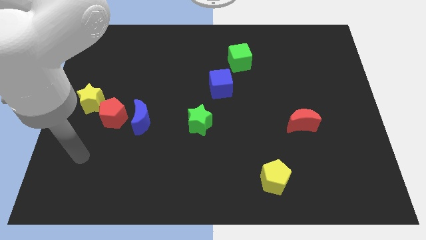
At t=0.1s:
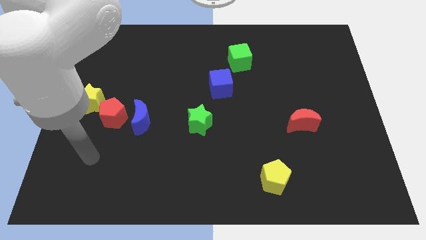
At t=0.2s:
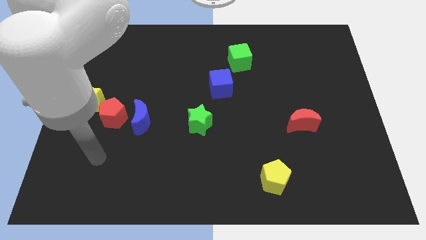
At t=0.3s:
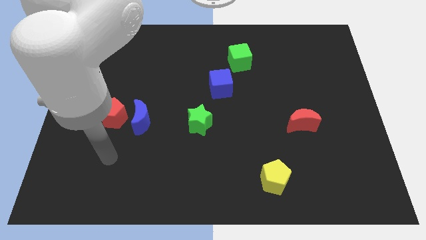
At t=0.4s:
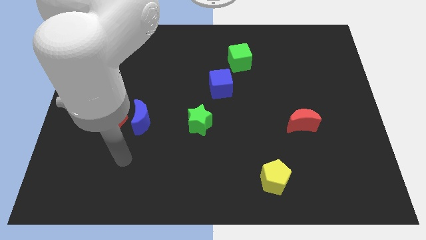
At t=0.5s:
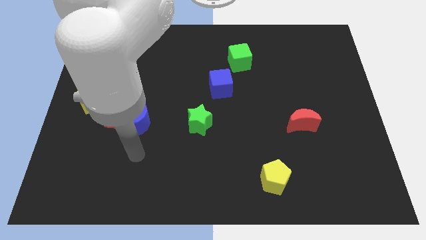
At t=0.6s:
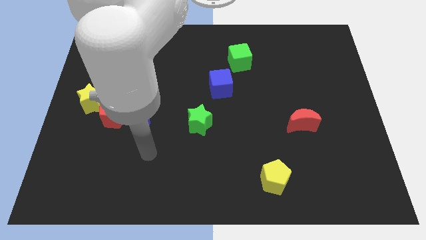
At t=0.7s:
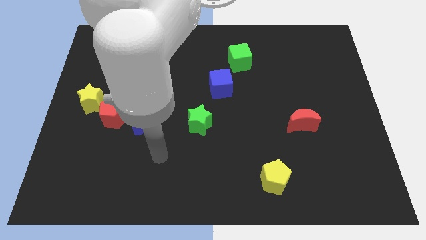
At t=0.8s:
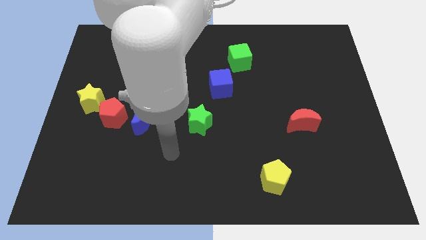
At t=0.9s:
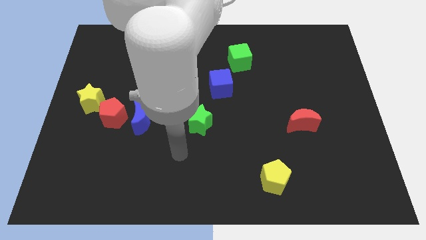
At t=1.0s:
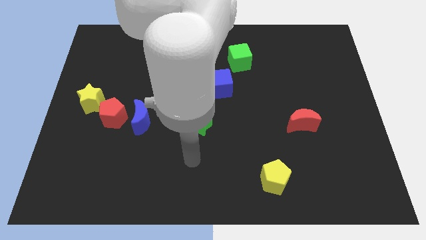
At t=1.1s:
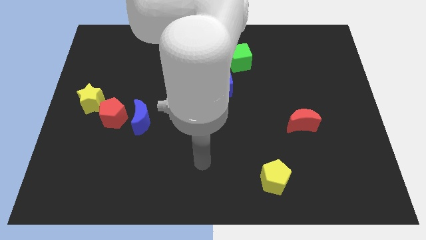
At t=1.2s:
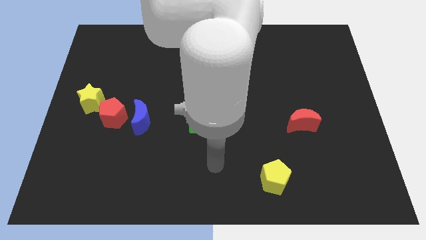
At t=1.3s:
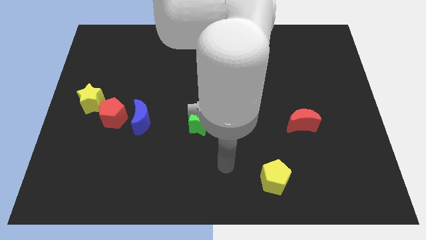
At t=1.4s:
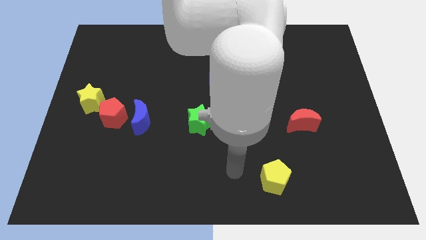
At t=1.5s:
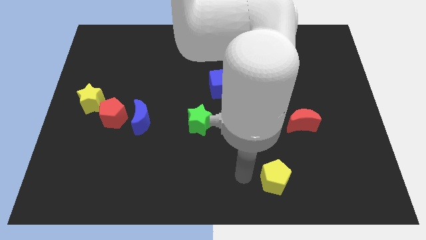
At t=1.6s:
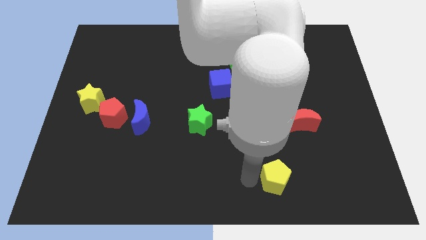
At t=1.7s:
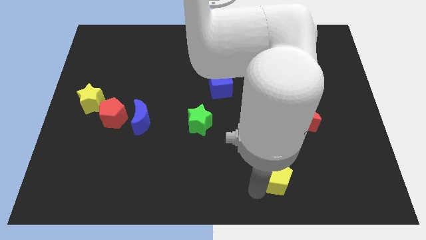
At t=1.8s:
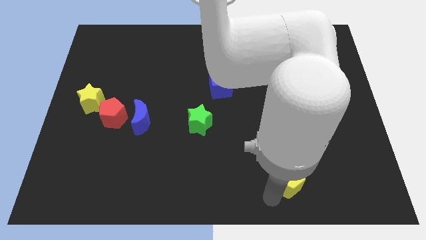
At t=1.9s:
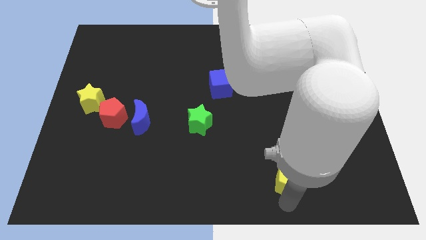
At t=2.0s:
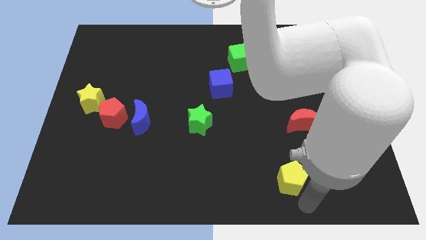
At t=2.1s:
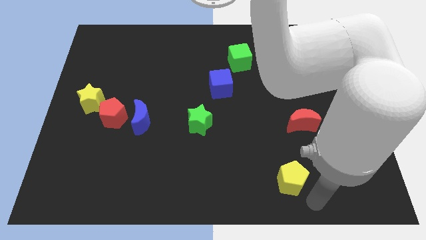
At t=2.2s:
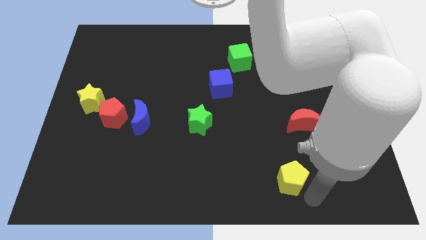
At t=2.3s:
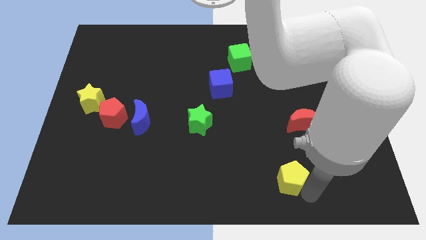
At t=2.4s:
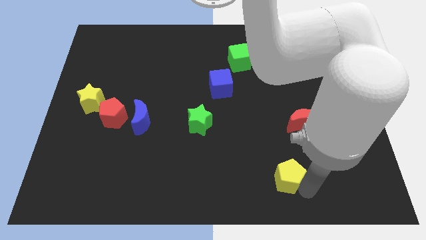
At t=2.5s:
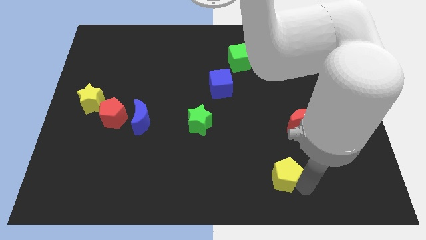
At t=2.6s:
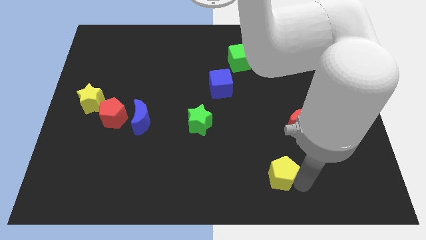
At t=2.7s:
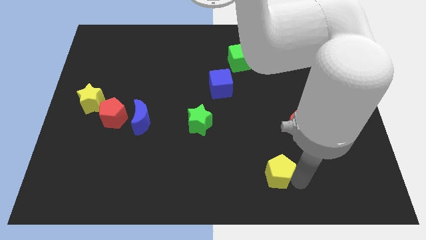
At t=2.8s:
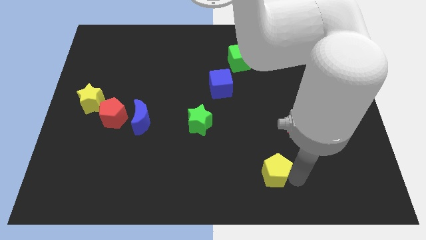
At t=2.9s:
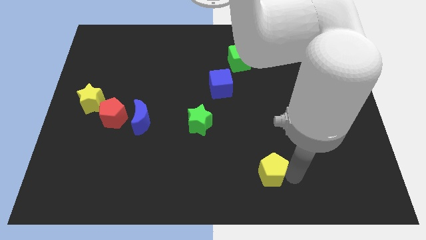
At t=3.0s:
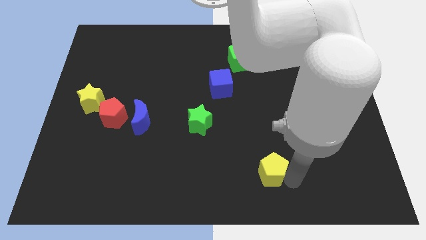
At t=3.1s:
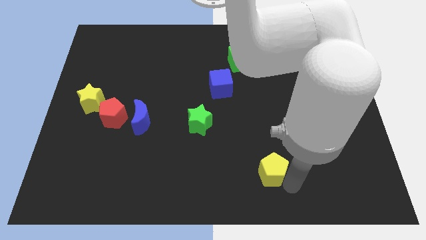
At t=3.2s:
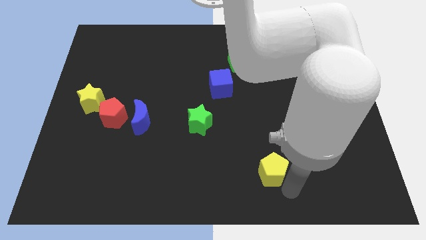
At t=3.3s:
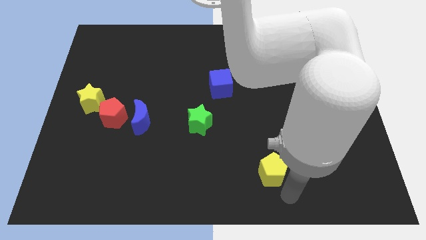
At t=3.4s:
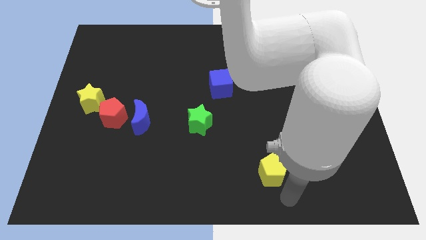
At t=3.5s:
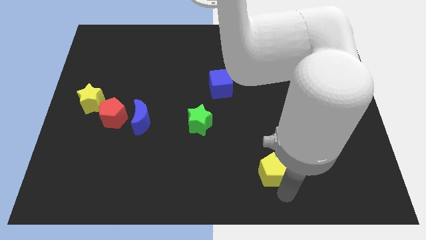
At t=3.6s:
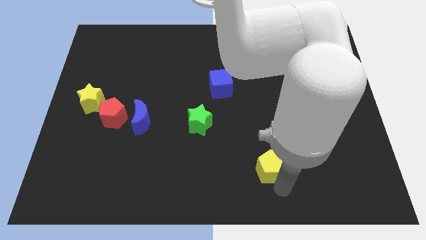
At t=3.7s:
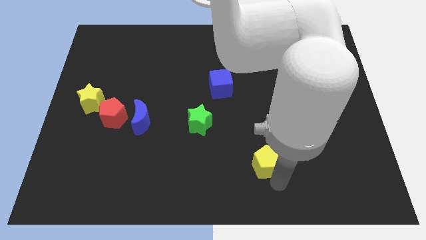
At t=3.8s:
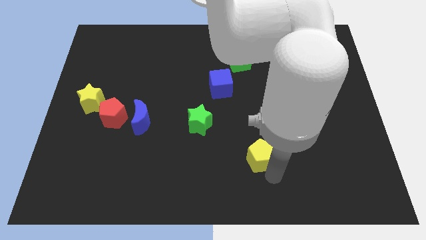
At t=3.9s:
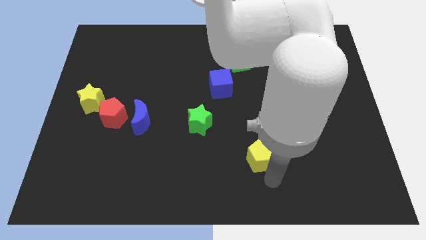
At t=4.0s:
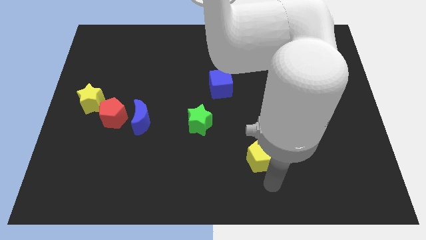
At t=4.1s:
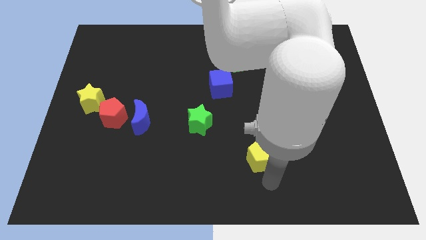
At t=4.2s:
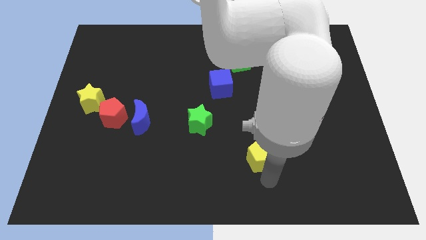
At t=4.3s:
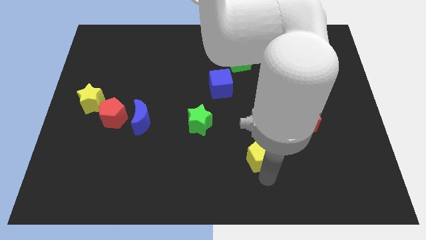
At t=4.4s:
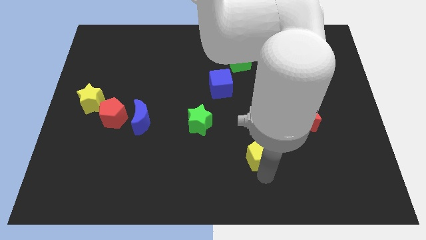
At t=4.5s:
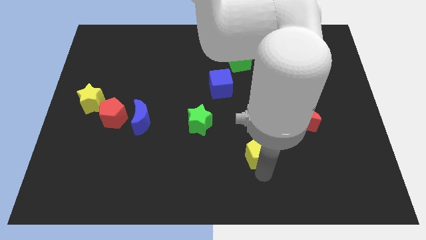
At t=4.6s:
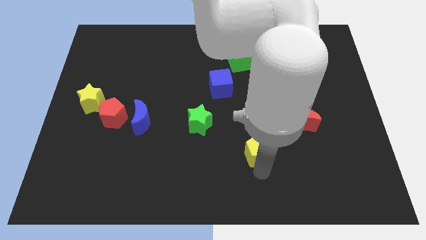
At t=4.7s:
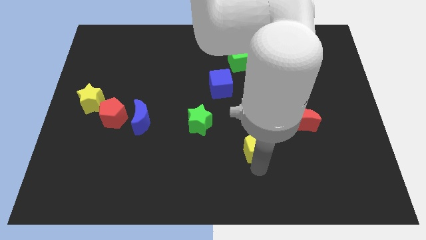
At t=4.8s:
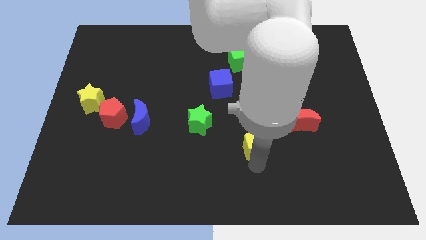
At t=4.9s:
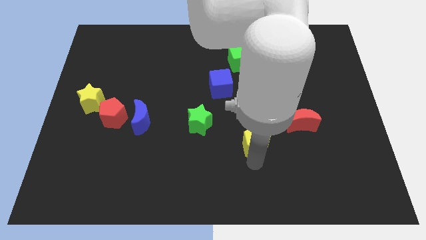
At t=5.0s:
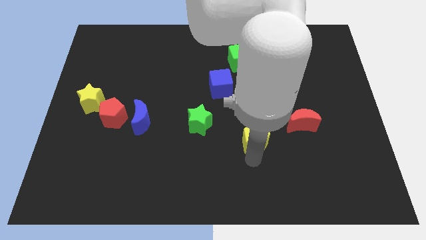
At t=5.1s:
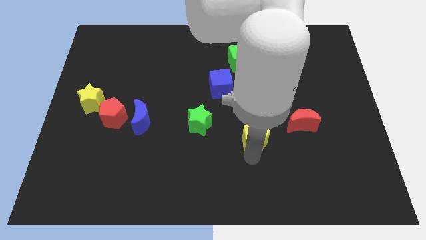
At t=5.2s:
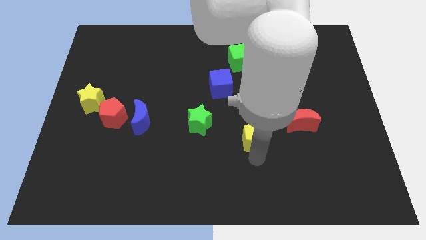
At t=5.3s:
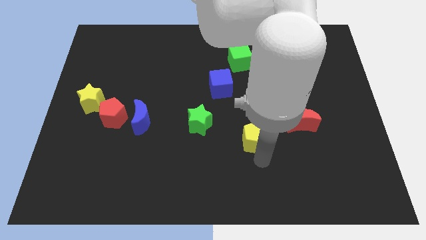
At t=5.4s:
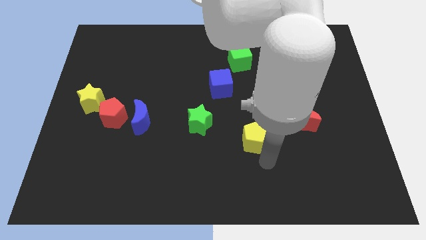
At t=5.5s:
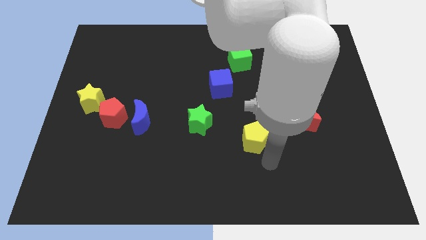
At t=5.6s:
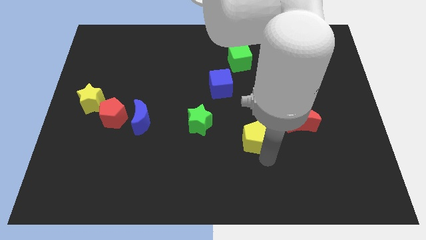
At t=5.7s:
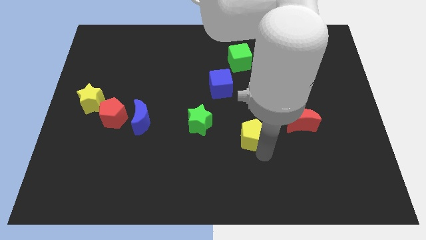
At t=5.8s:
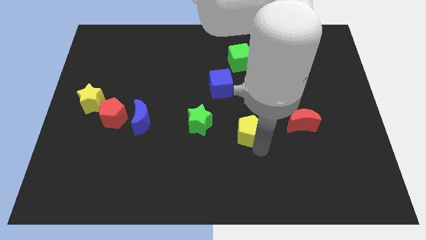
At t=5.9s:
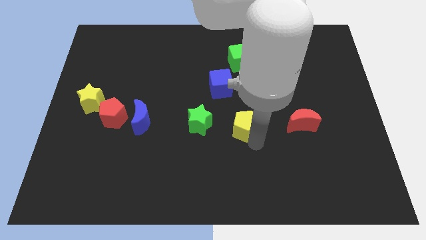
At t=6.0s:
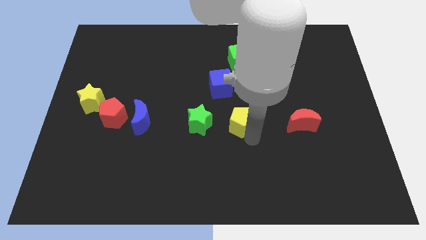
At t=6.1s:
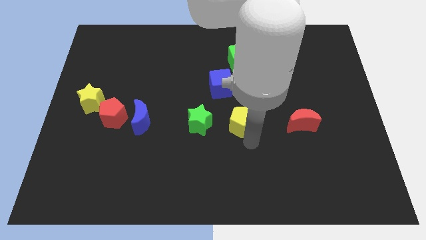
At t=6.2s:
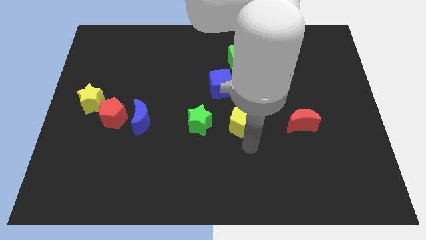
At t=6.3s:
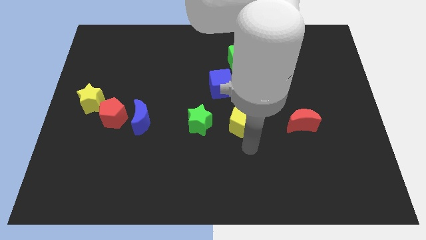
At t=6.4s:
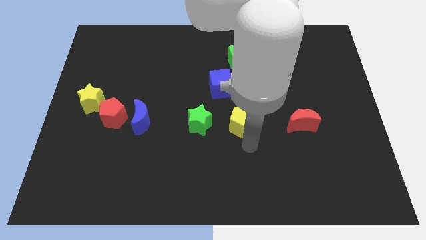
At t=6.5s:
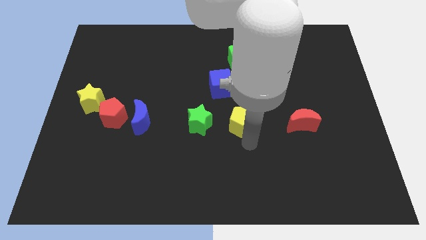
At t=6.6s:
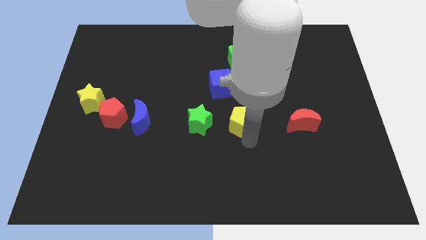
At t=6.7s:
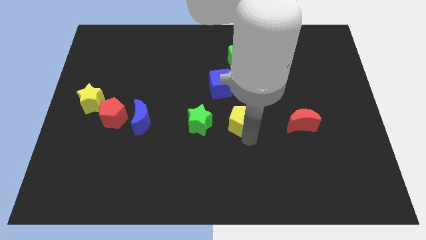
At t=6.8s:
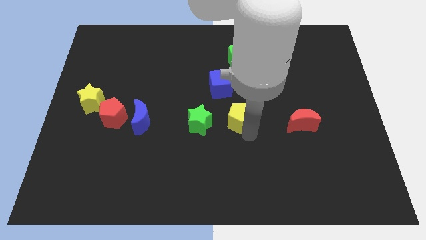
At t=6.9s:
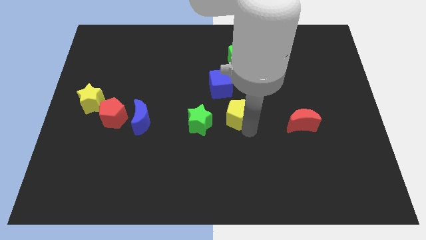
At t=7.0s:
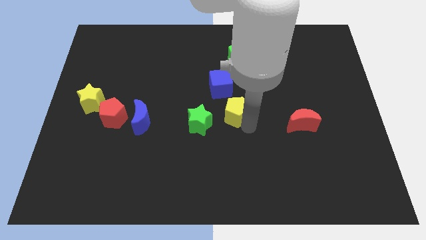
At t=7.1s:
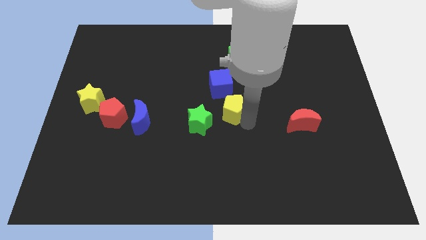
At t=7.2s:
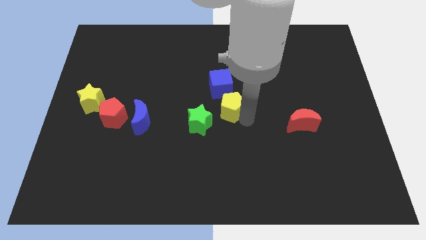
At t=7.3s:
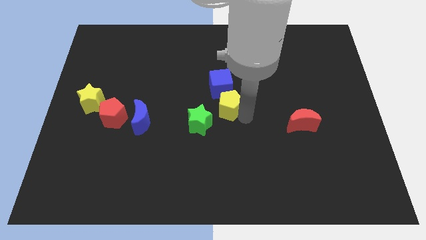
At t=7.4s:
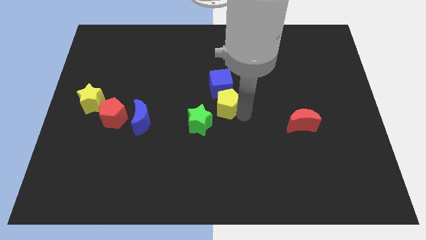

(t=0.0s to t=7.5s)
slide the yellow pentagon to the blue cube
